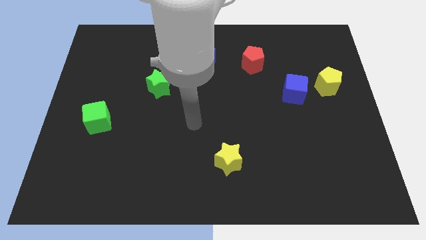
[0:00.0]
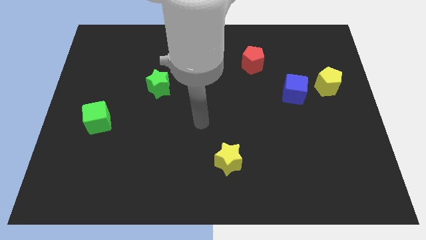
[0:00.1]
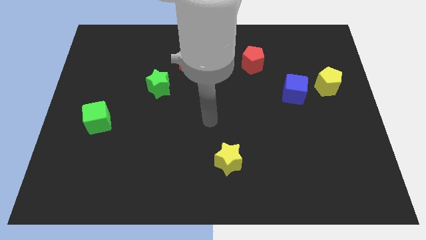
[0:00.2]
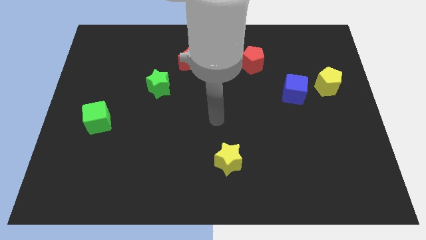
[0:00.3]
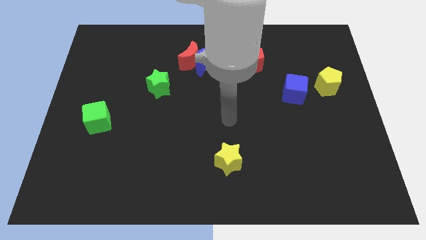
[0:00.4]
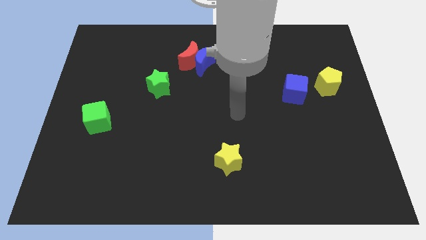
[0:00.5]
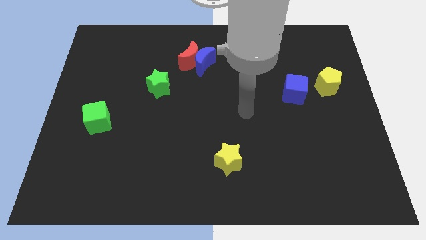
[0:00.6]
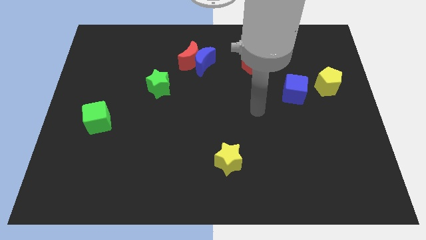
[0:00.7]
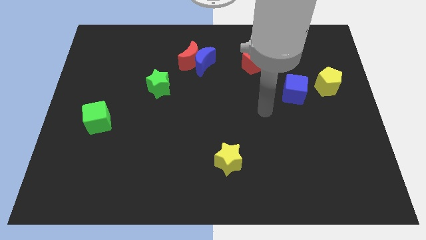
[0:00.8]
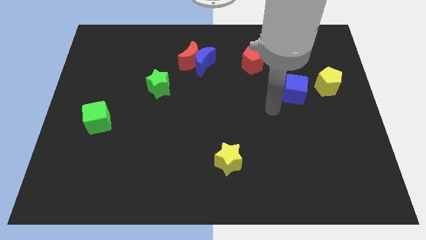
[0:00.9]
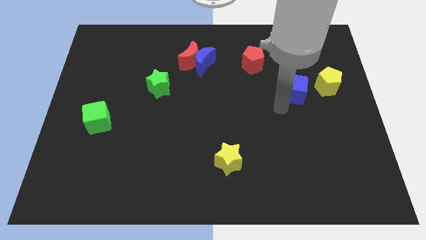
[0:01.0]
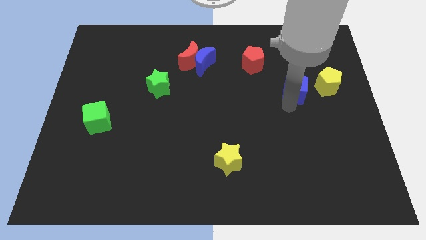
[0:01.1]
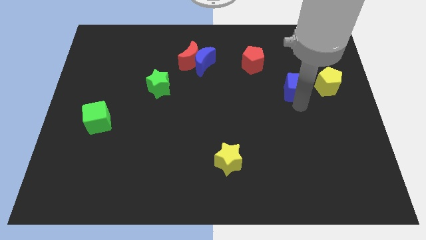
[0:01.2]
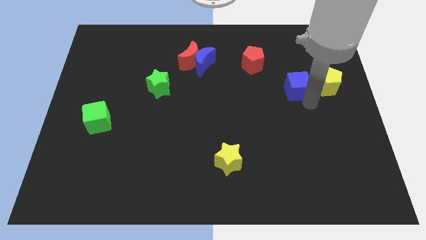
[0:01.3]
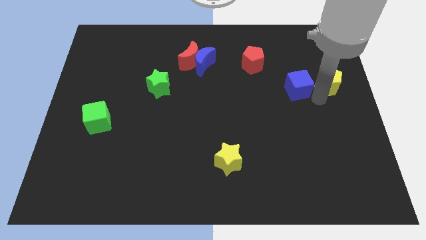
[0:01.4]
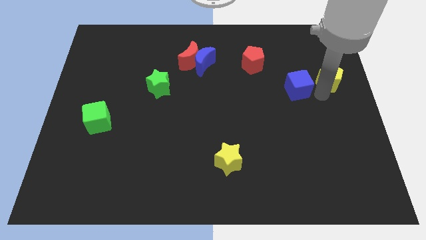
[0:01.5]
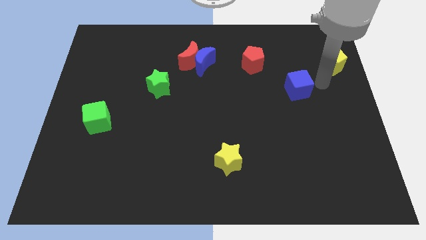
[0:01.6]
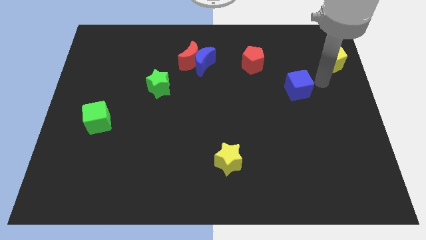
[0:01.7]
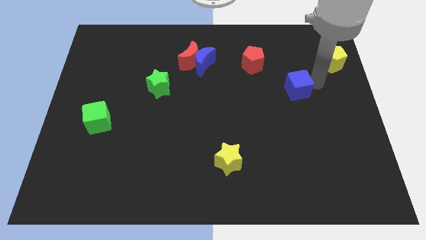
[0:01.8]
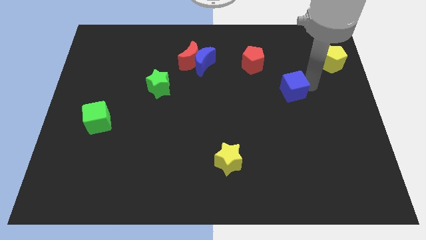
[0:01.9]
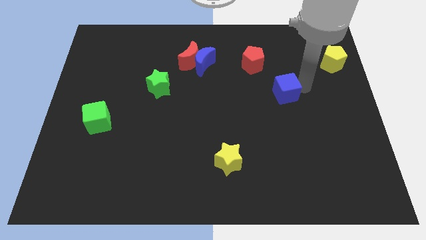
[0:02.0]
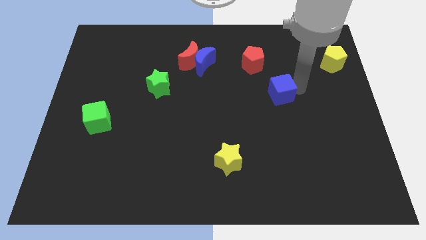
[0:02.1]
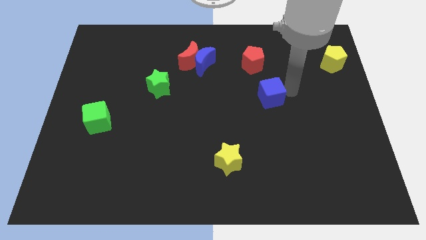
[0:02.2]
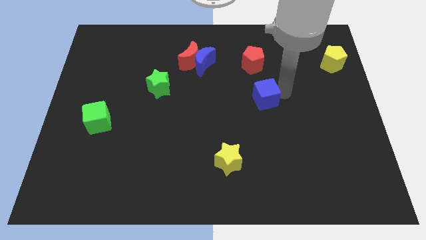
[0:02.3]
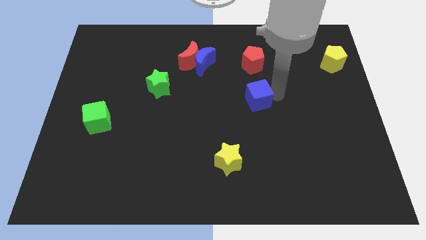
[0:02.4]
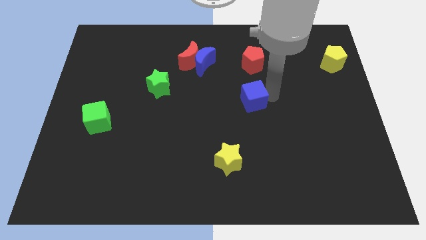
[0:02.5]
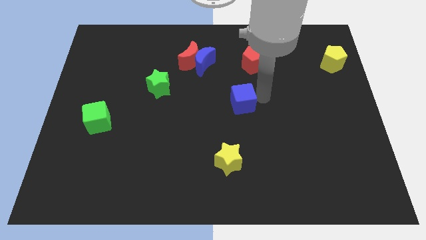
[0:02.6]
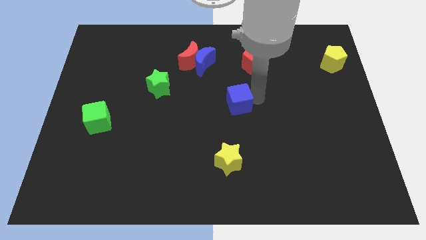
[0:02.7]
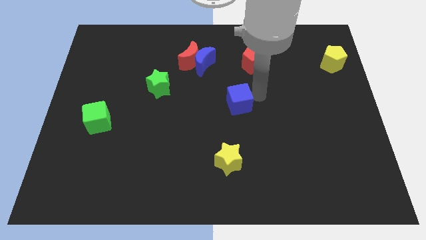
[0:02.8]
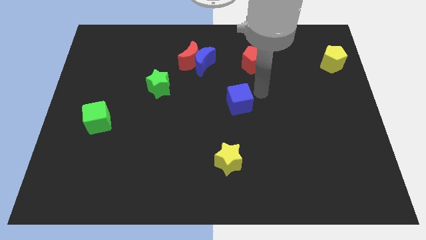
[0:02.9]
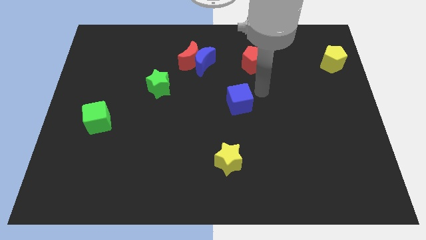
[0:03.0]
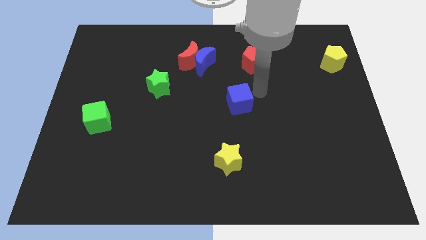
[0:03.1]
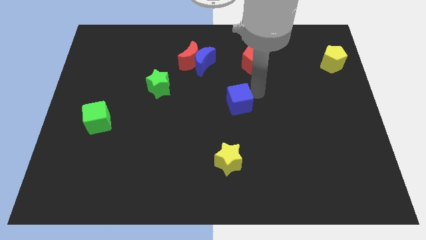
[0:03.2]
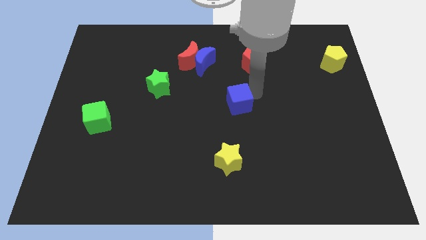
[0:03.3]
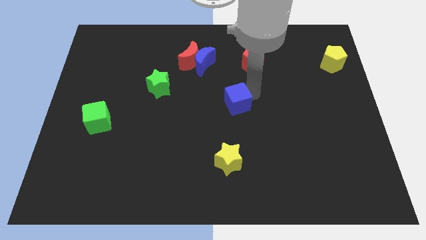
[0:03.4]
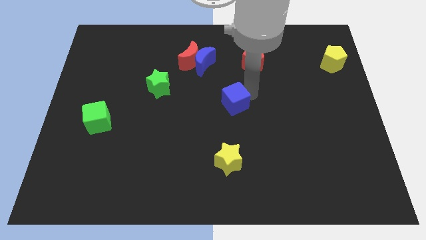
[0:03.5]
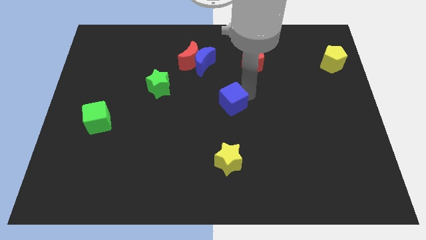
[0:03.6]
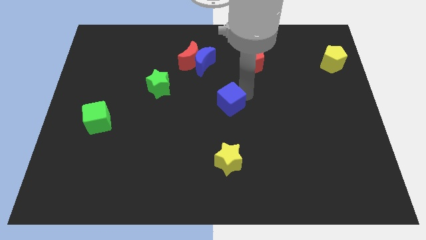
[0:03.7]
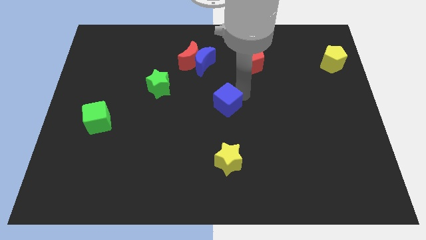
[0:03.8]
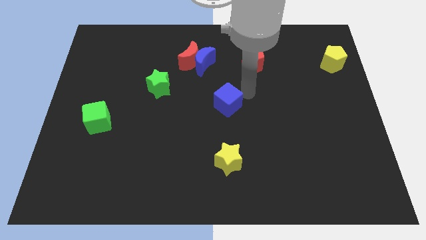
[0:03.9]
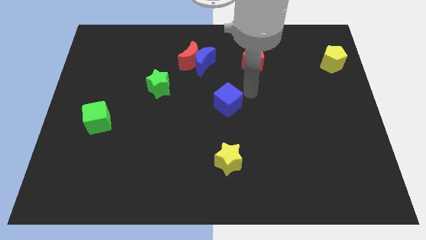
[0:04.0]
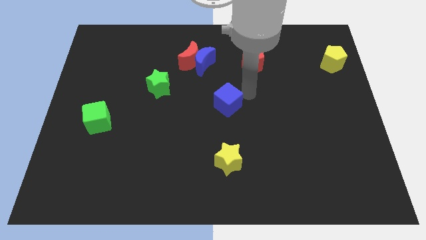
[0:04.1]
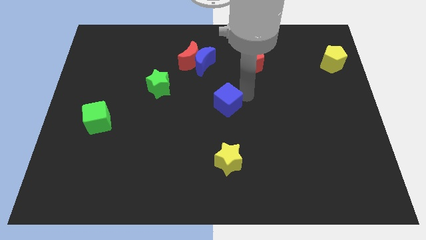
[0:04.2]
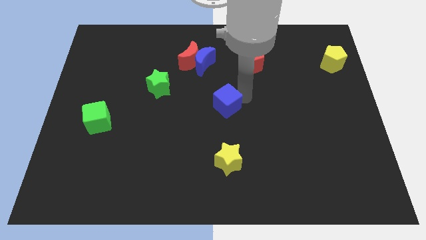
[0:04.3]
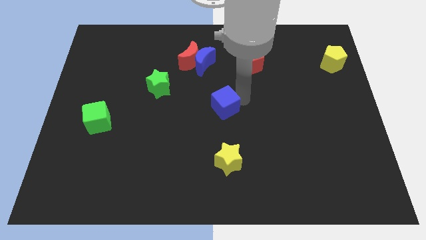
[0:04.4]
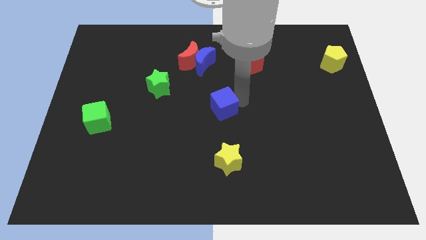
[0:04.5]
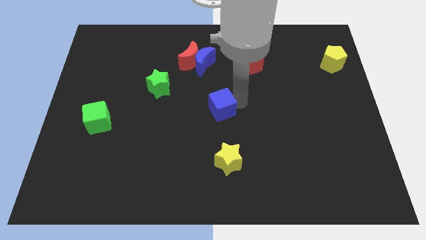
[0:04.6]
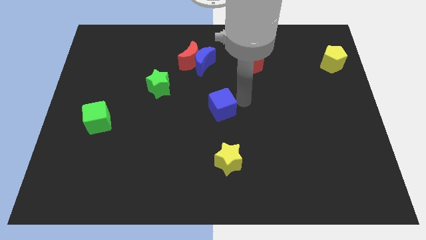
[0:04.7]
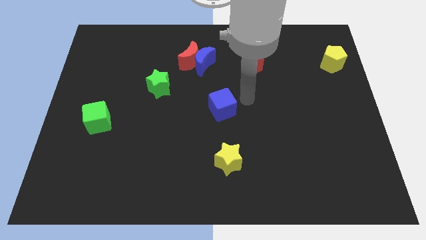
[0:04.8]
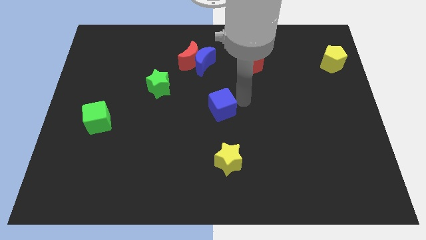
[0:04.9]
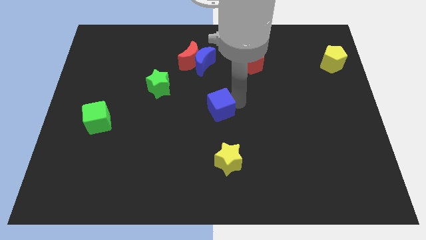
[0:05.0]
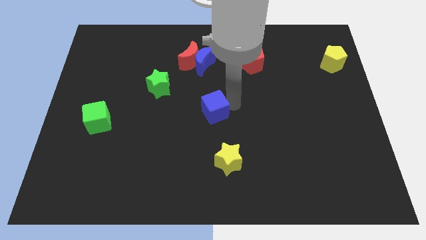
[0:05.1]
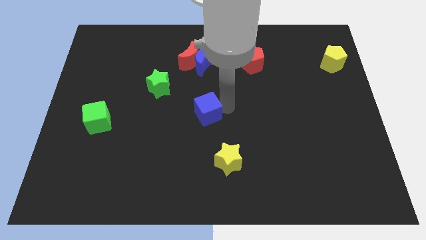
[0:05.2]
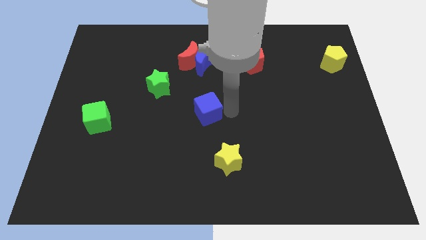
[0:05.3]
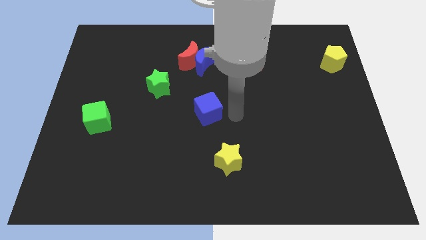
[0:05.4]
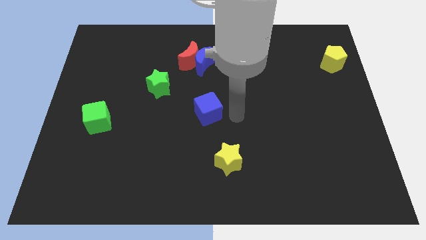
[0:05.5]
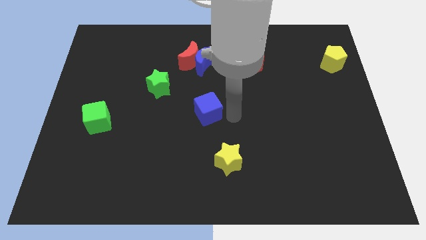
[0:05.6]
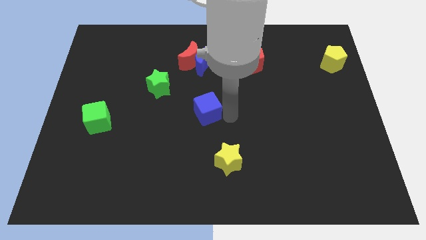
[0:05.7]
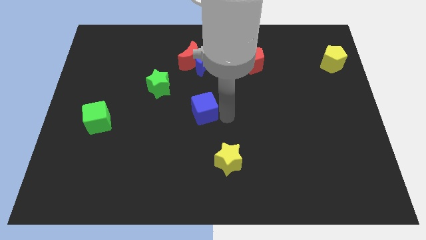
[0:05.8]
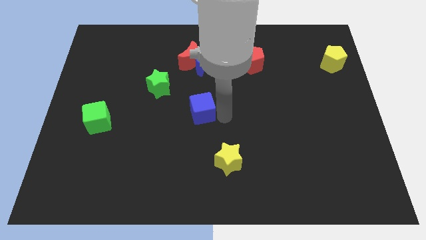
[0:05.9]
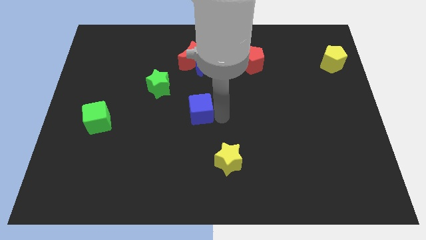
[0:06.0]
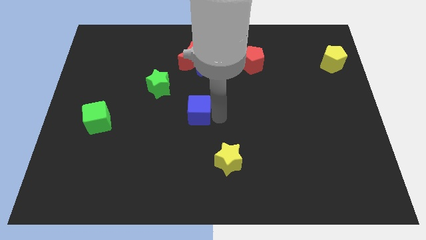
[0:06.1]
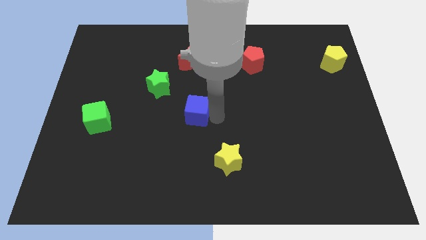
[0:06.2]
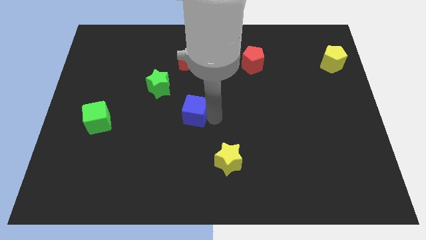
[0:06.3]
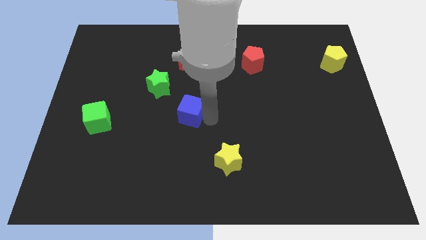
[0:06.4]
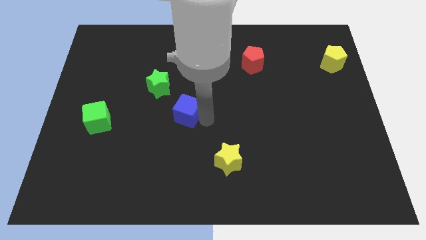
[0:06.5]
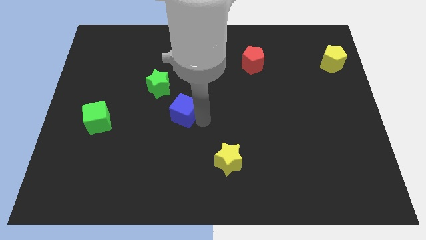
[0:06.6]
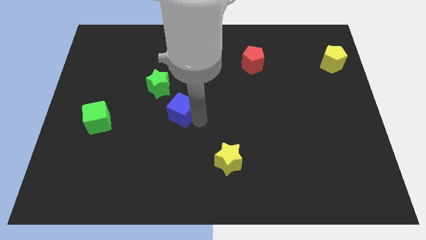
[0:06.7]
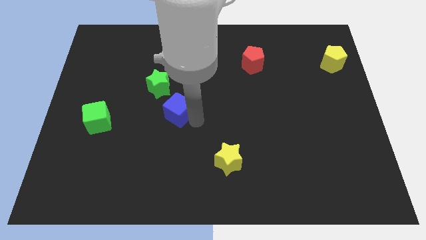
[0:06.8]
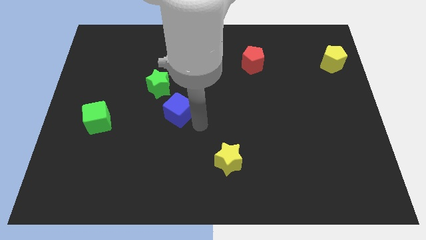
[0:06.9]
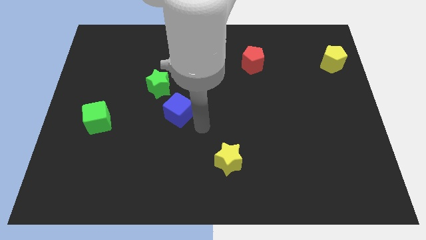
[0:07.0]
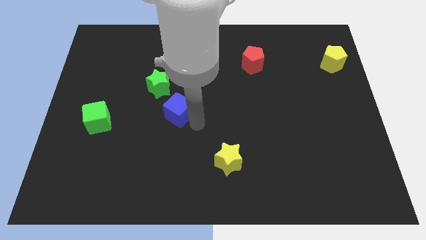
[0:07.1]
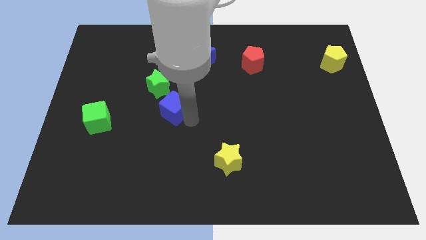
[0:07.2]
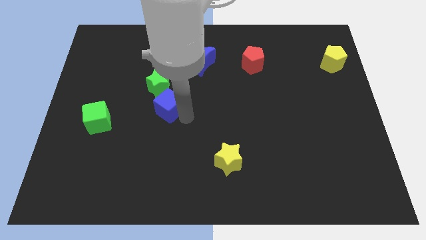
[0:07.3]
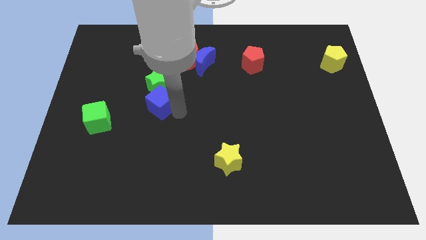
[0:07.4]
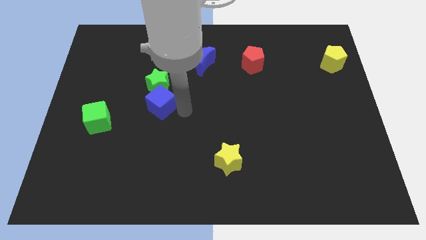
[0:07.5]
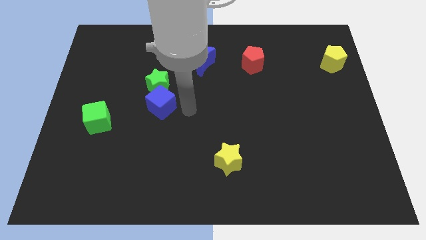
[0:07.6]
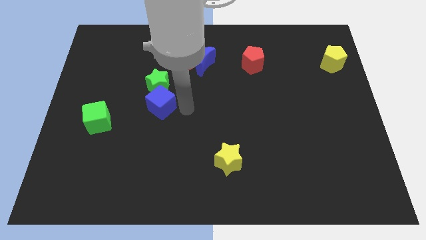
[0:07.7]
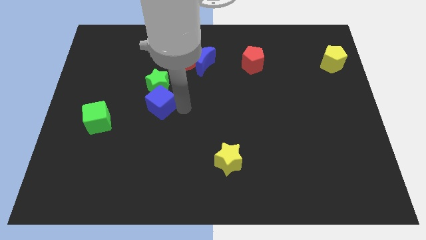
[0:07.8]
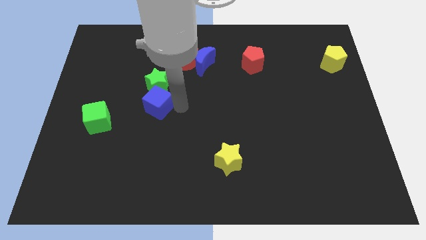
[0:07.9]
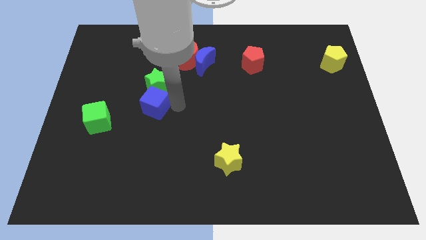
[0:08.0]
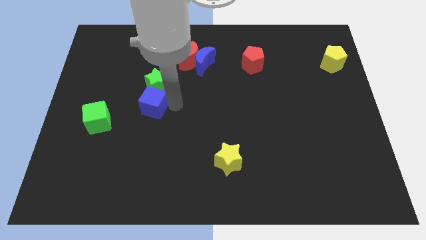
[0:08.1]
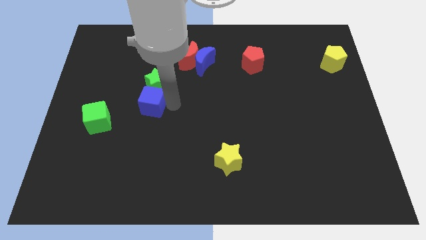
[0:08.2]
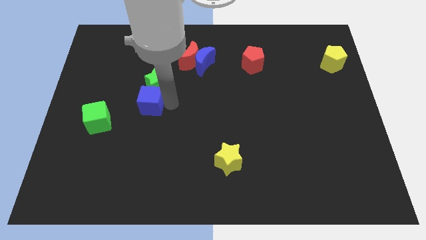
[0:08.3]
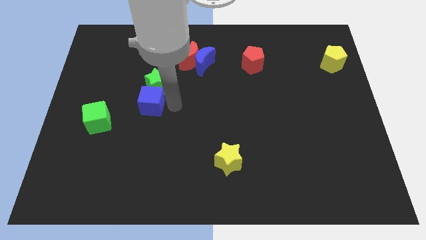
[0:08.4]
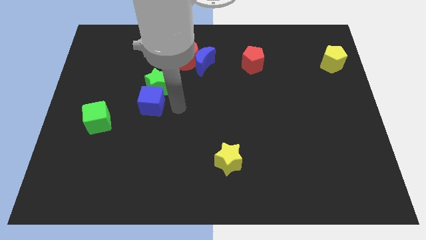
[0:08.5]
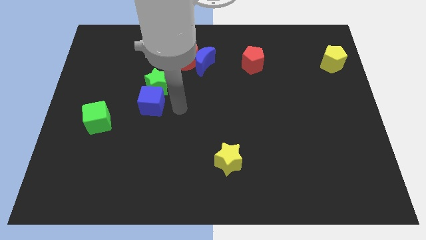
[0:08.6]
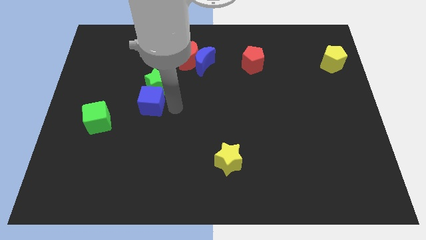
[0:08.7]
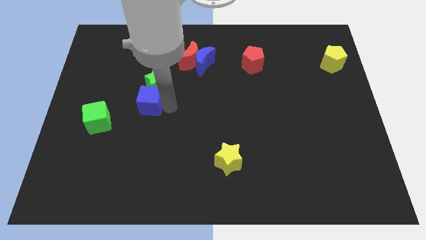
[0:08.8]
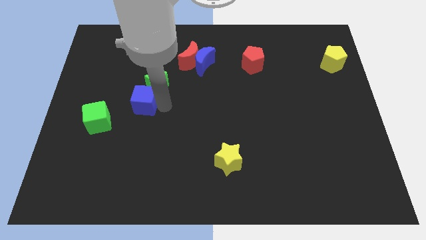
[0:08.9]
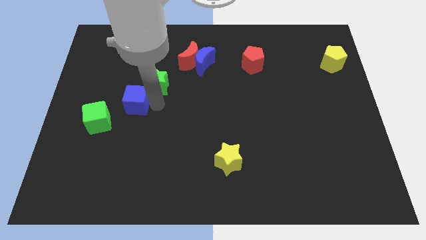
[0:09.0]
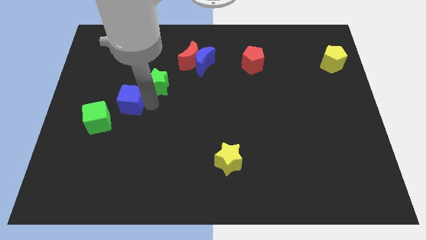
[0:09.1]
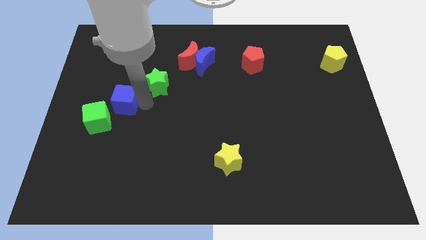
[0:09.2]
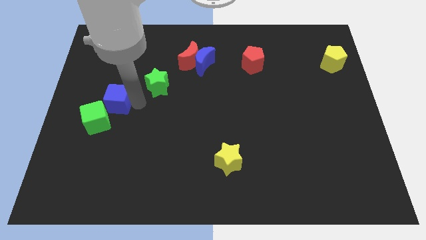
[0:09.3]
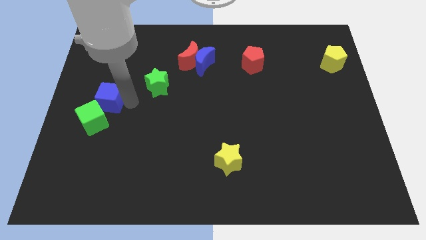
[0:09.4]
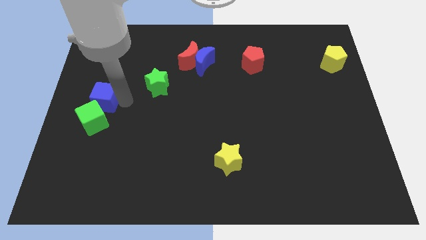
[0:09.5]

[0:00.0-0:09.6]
move the blue cube to the left side of the board
